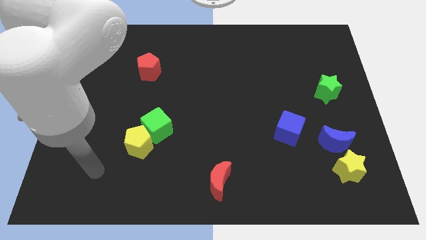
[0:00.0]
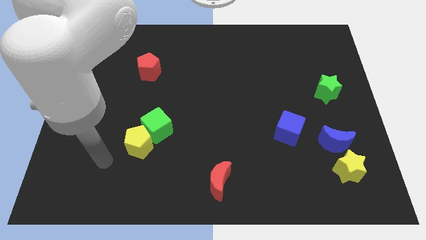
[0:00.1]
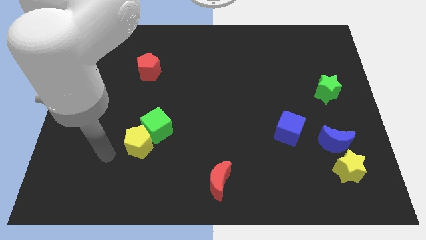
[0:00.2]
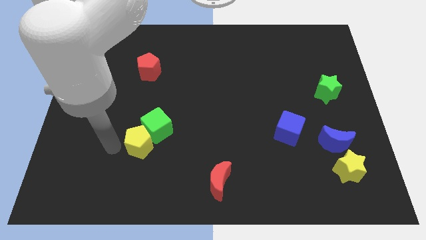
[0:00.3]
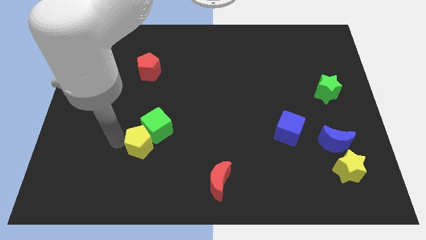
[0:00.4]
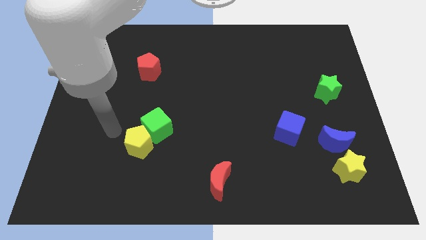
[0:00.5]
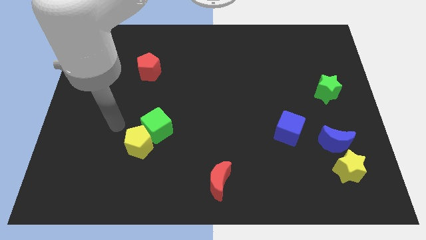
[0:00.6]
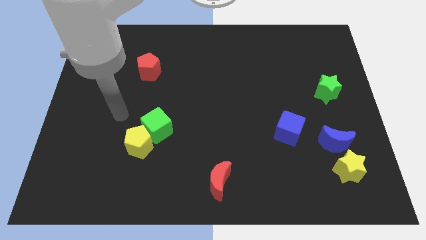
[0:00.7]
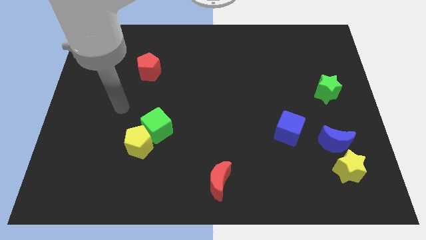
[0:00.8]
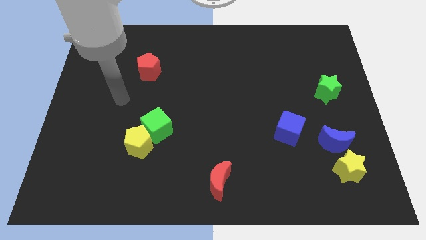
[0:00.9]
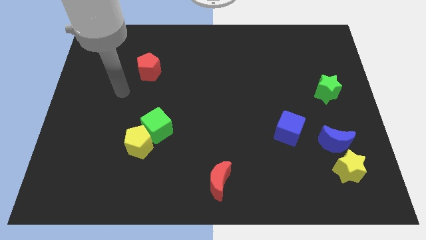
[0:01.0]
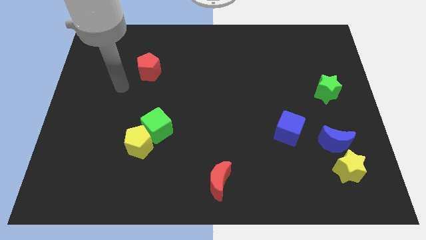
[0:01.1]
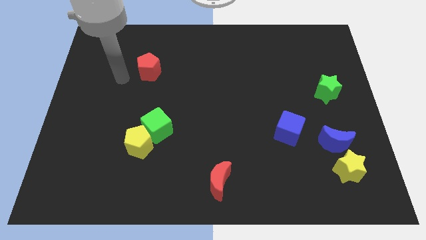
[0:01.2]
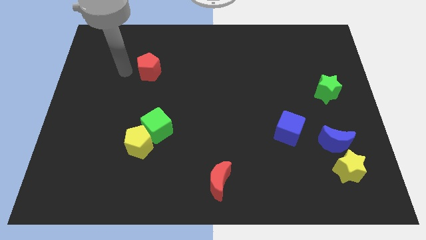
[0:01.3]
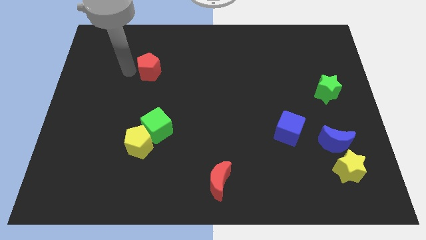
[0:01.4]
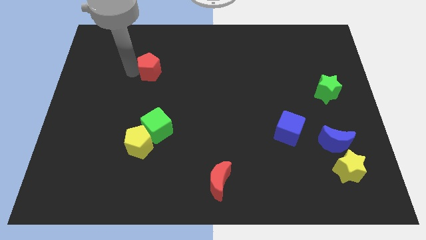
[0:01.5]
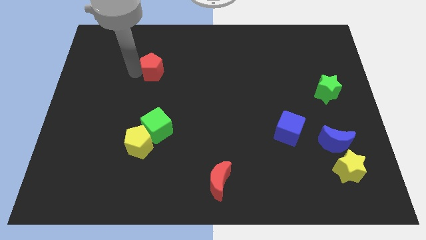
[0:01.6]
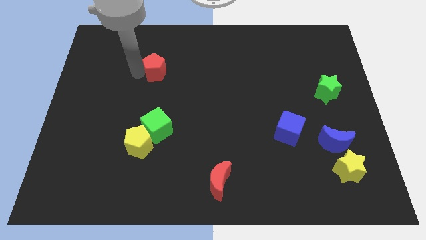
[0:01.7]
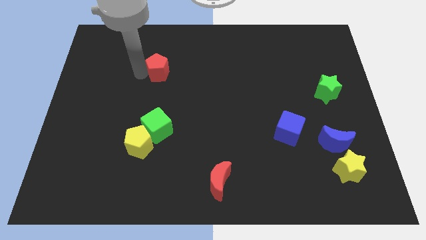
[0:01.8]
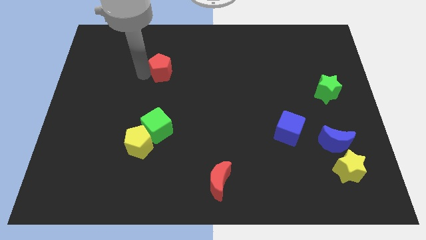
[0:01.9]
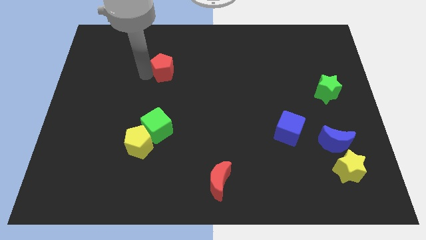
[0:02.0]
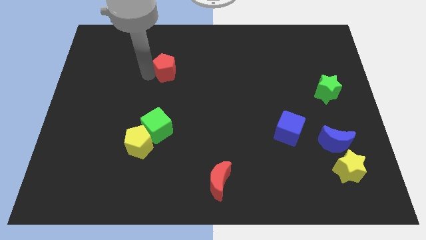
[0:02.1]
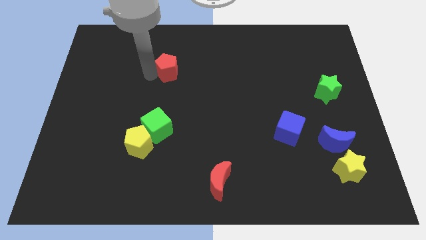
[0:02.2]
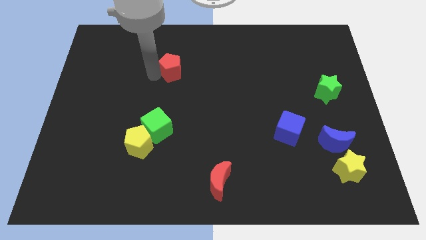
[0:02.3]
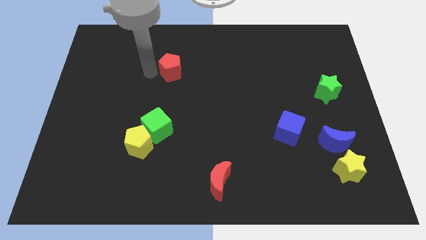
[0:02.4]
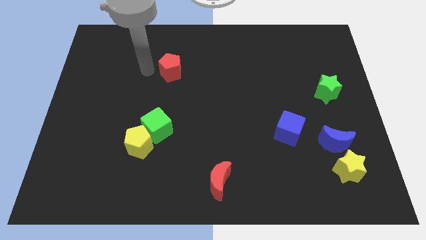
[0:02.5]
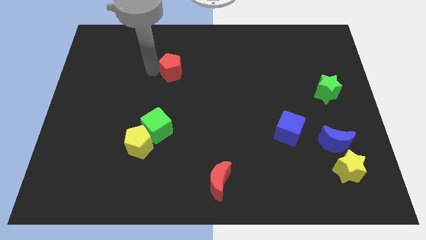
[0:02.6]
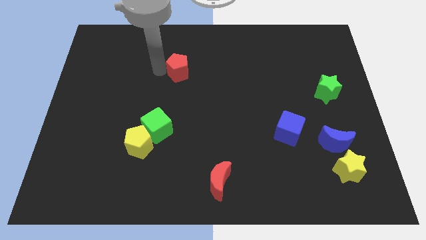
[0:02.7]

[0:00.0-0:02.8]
slide the red pentagon to the right slightly

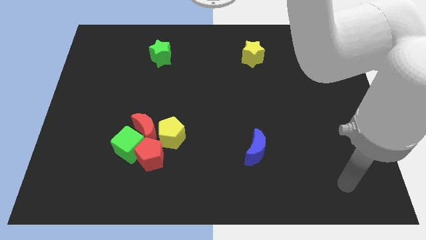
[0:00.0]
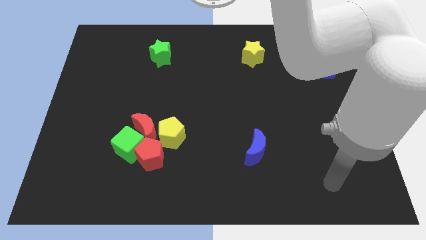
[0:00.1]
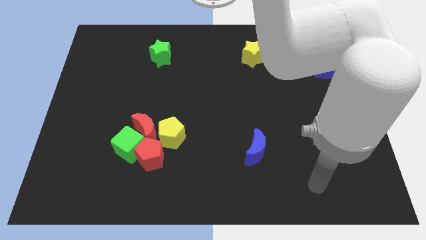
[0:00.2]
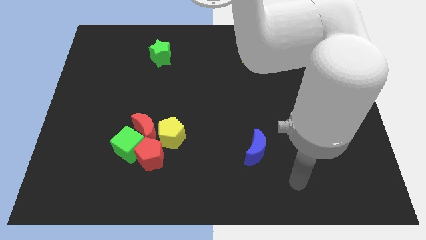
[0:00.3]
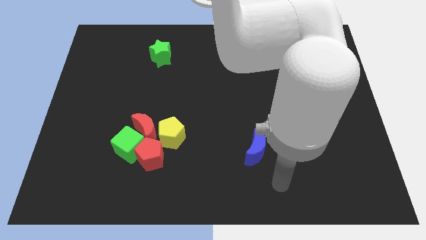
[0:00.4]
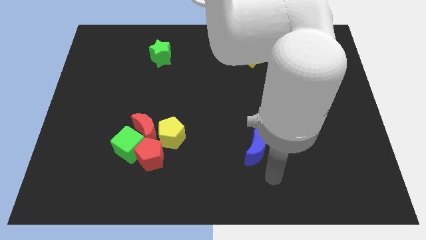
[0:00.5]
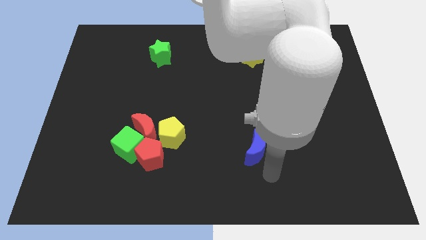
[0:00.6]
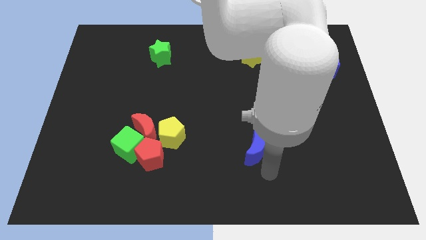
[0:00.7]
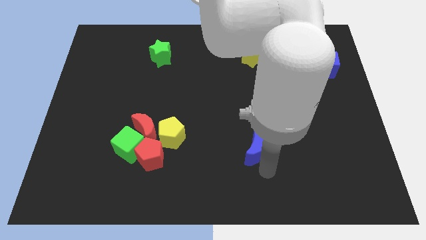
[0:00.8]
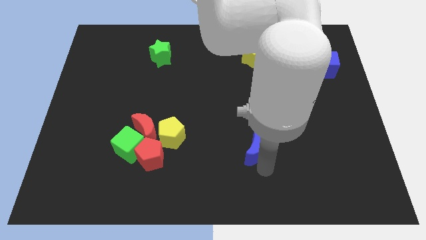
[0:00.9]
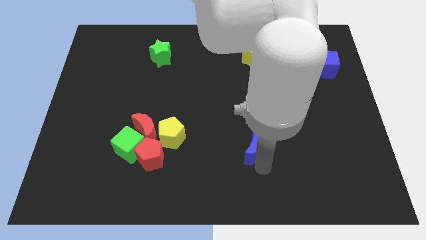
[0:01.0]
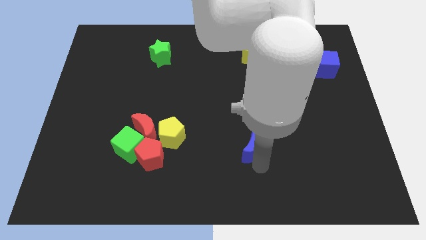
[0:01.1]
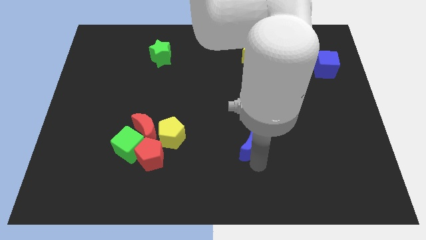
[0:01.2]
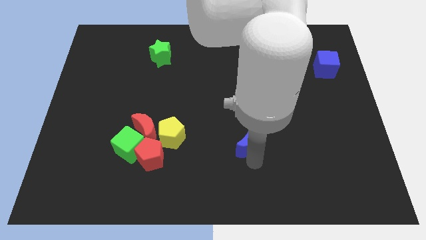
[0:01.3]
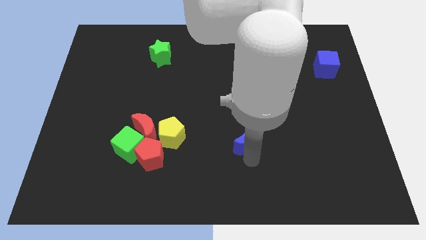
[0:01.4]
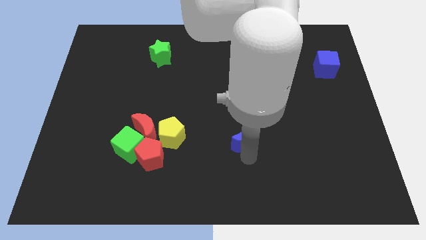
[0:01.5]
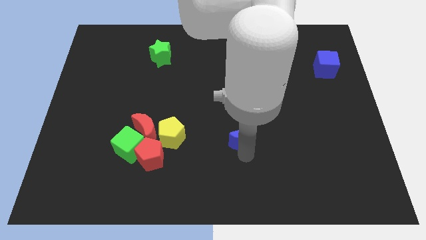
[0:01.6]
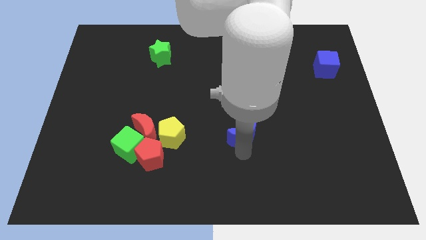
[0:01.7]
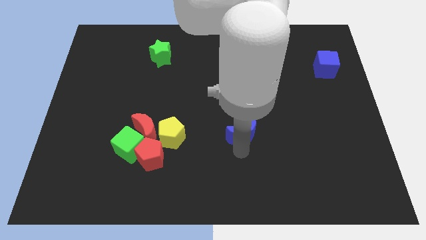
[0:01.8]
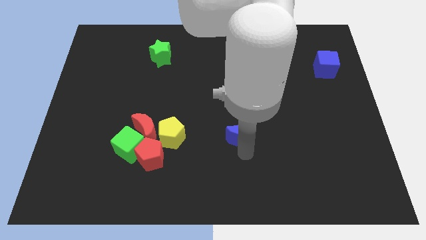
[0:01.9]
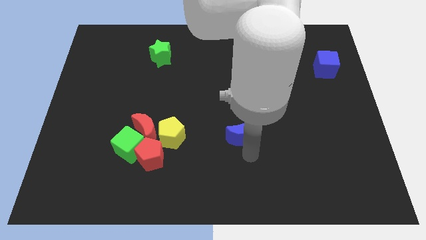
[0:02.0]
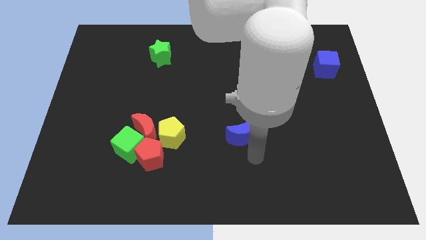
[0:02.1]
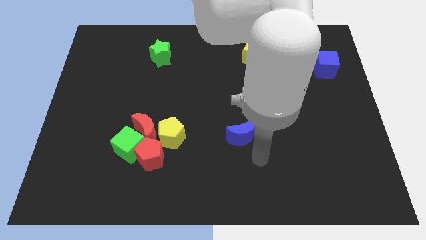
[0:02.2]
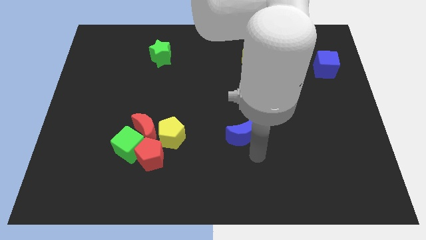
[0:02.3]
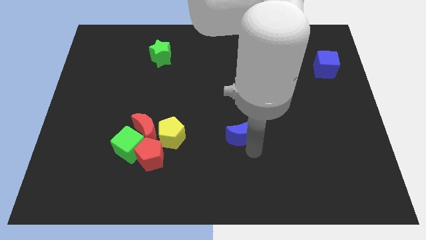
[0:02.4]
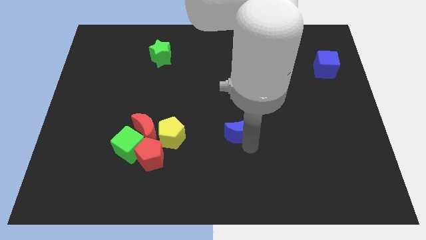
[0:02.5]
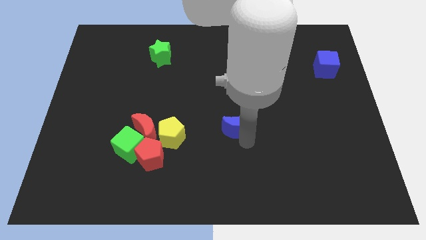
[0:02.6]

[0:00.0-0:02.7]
slightly push the blue moon upwards and left

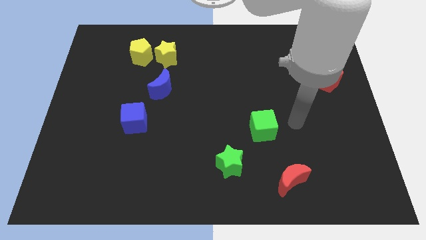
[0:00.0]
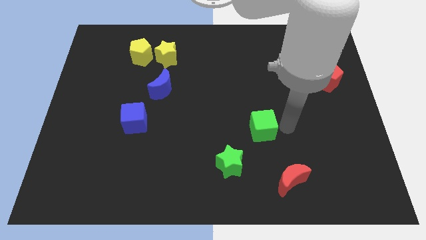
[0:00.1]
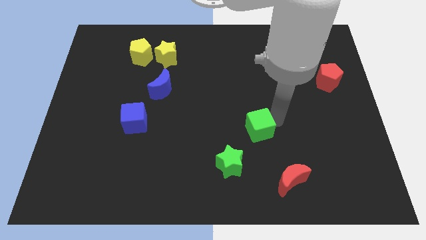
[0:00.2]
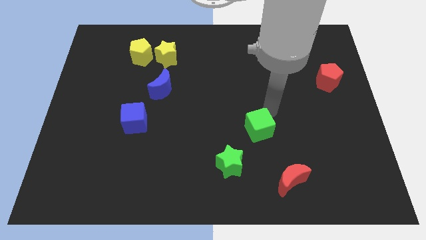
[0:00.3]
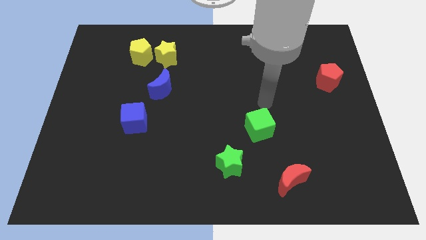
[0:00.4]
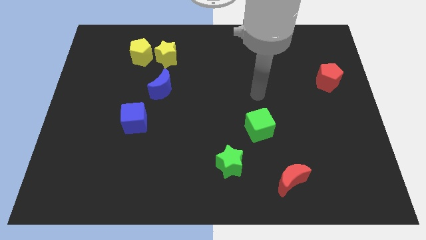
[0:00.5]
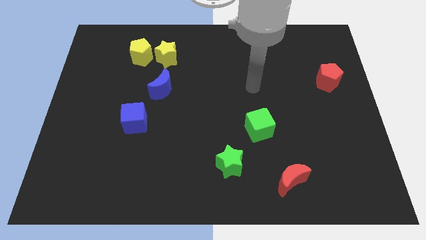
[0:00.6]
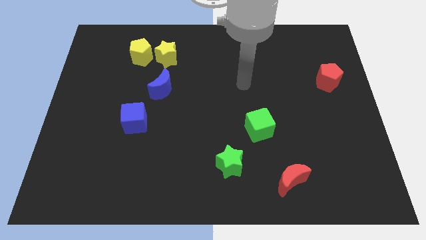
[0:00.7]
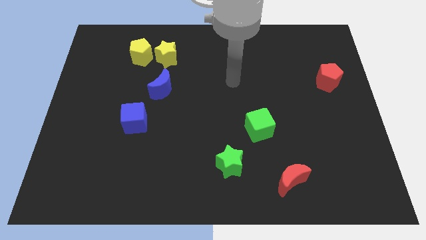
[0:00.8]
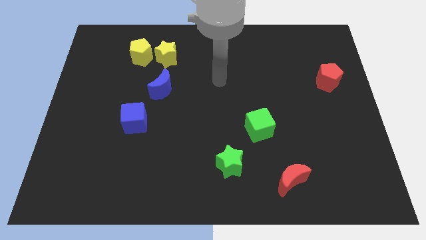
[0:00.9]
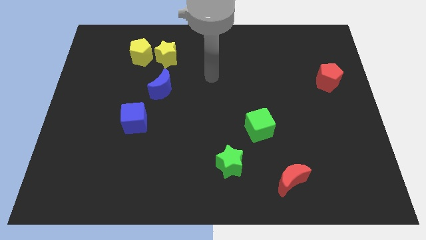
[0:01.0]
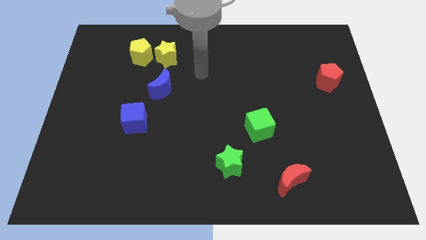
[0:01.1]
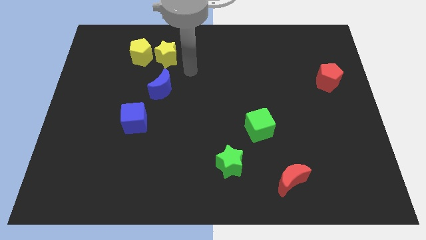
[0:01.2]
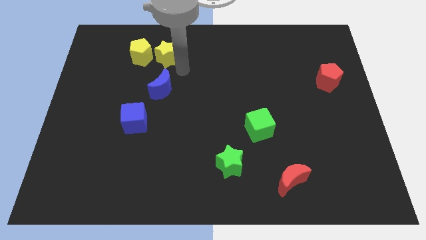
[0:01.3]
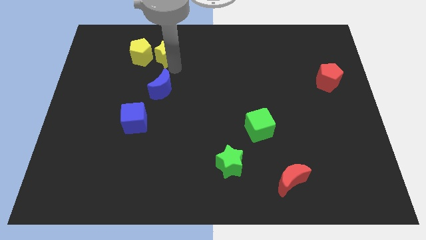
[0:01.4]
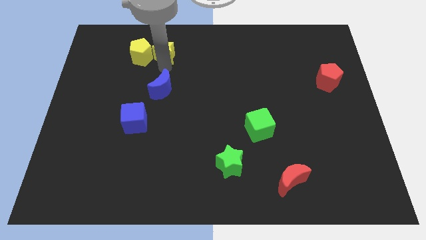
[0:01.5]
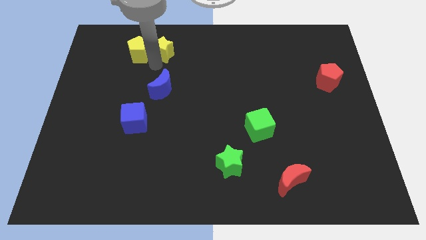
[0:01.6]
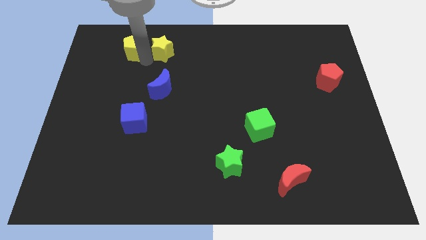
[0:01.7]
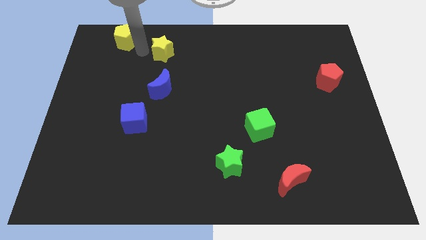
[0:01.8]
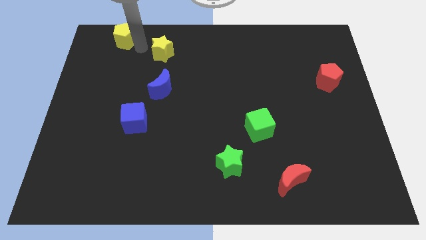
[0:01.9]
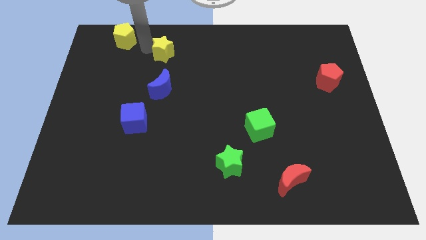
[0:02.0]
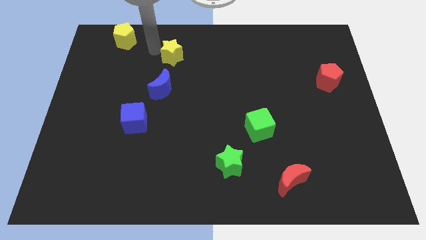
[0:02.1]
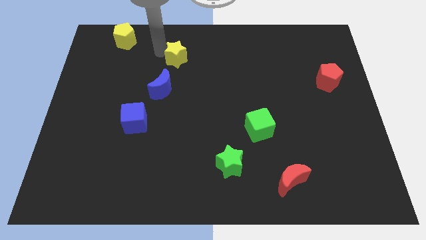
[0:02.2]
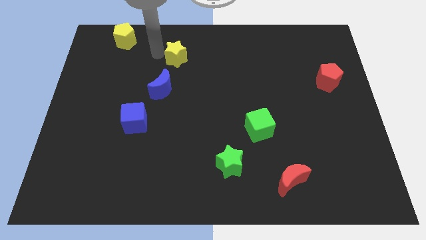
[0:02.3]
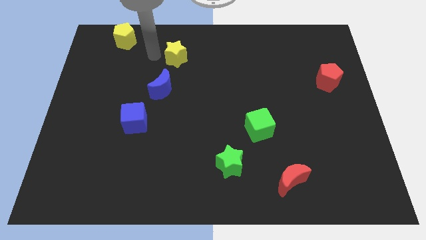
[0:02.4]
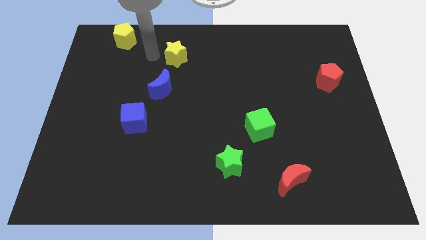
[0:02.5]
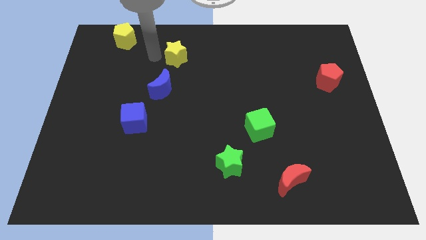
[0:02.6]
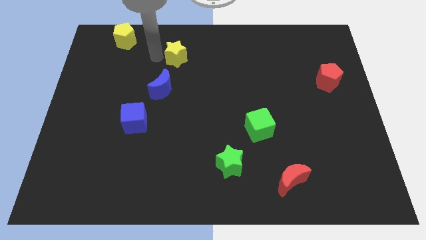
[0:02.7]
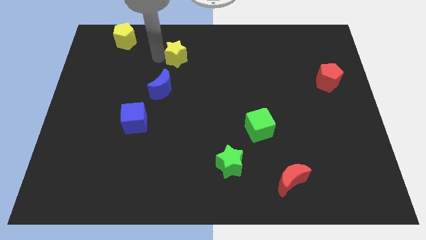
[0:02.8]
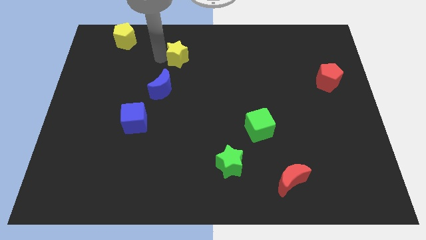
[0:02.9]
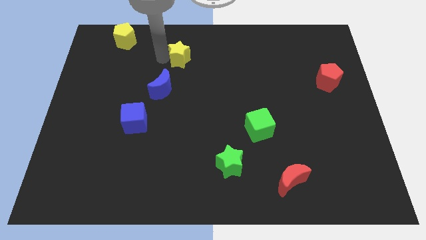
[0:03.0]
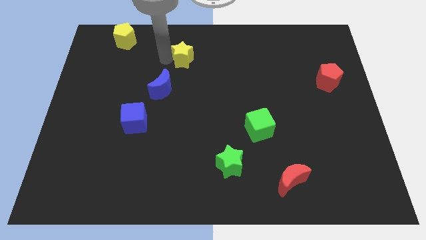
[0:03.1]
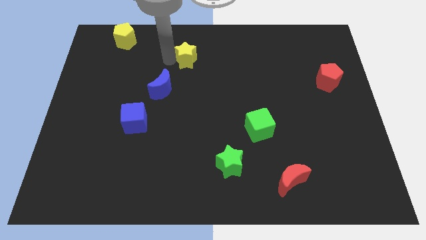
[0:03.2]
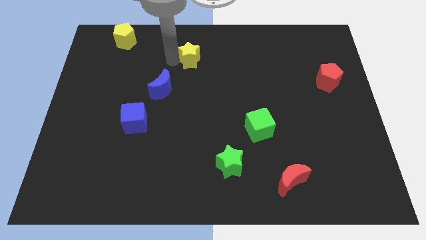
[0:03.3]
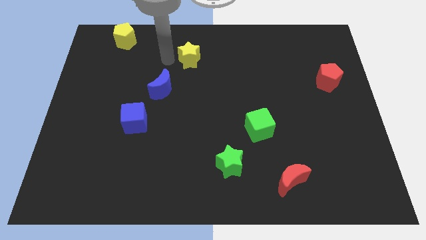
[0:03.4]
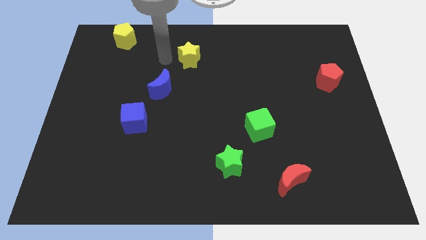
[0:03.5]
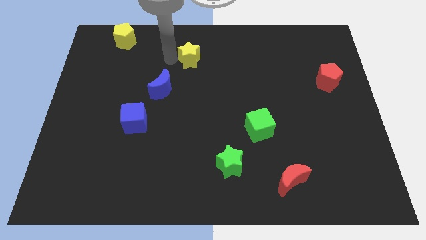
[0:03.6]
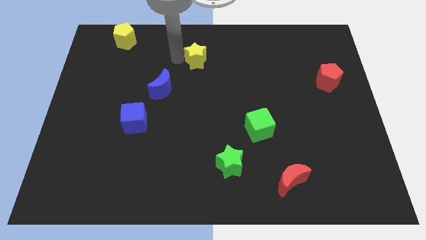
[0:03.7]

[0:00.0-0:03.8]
push the yellow star to the right slightly
